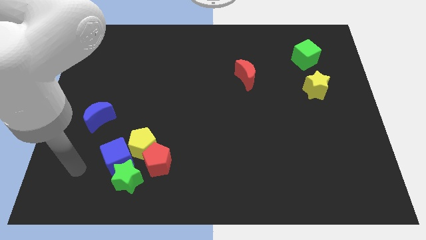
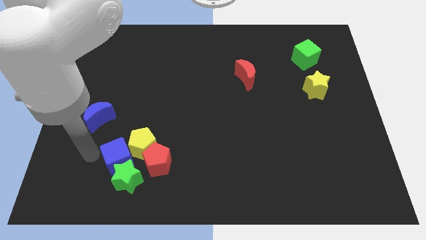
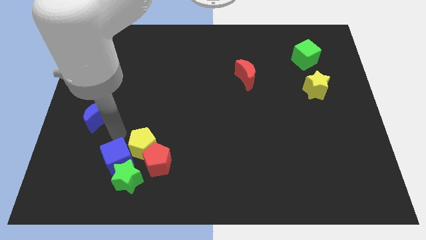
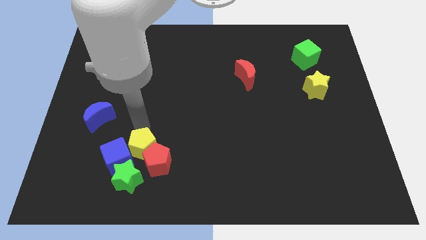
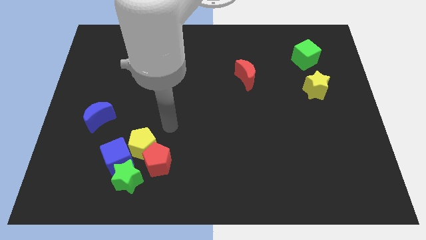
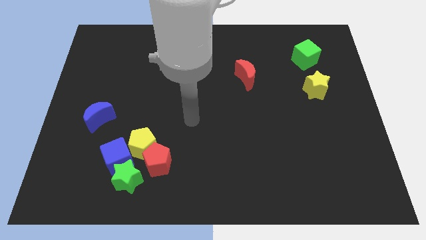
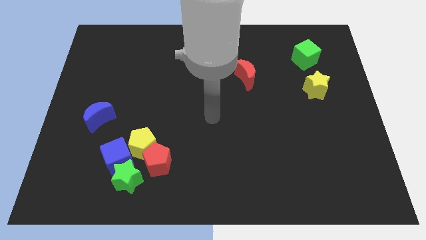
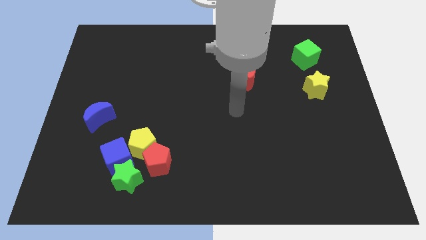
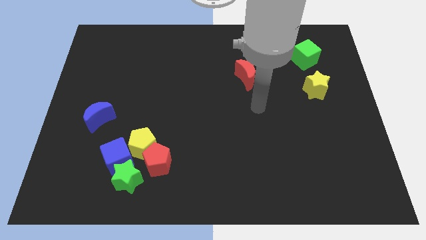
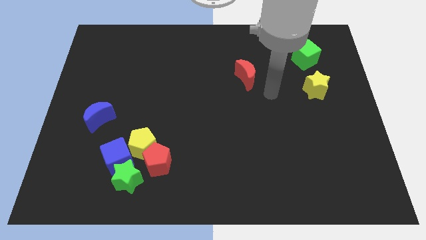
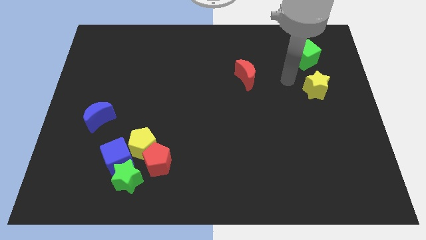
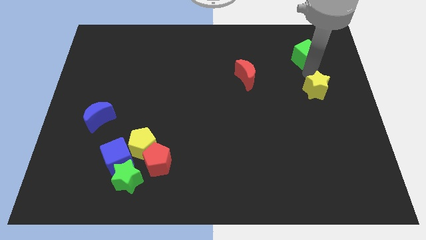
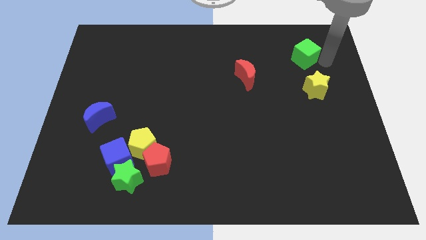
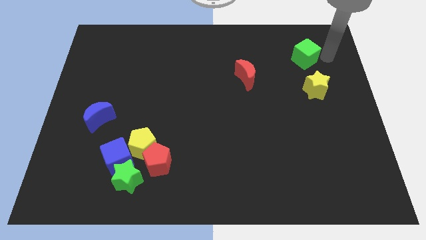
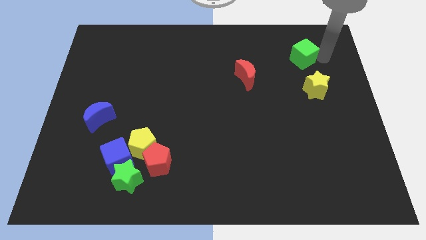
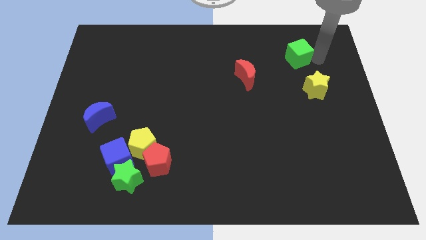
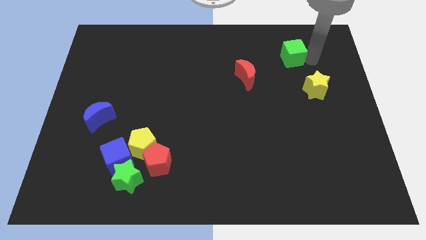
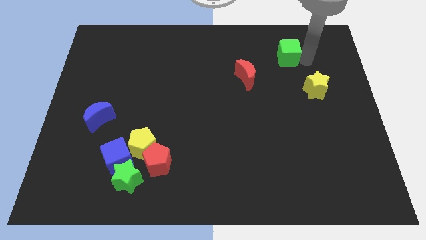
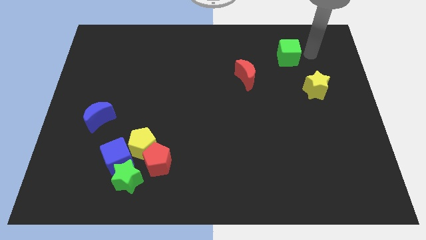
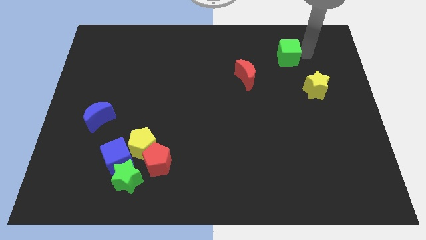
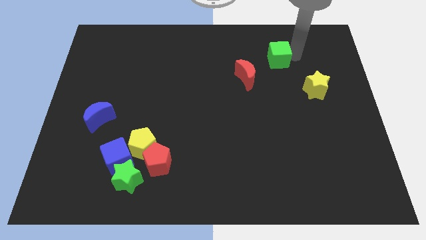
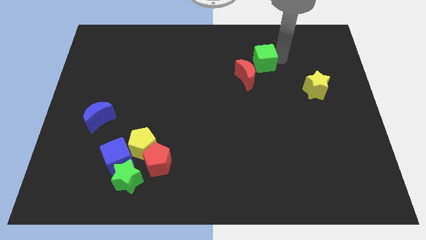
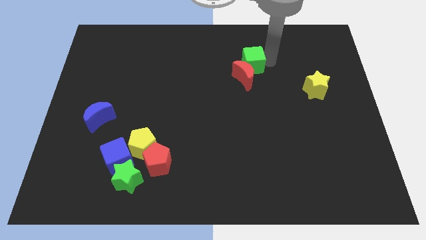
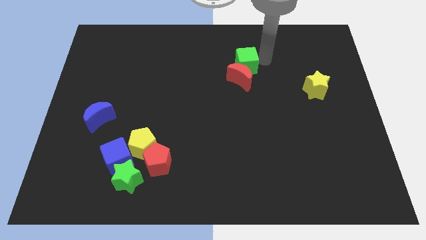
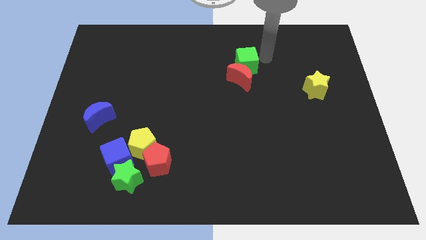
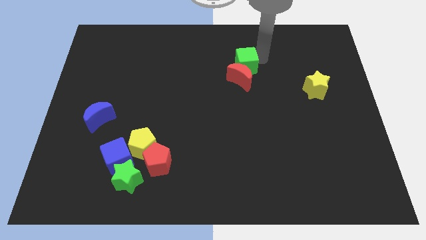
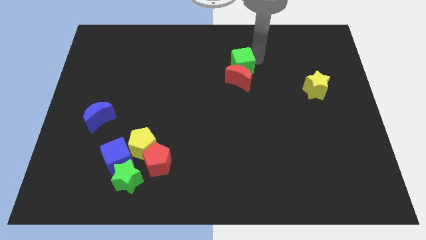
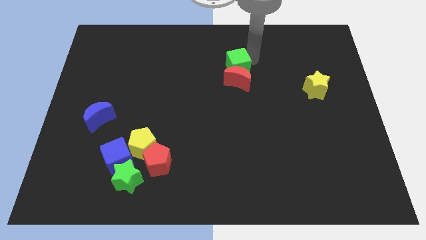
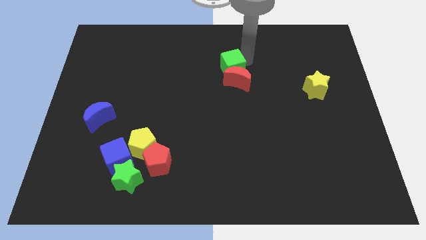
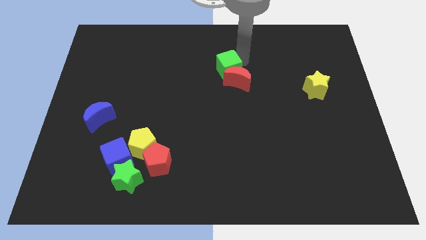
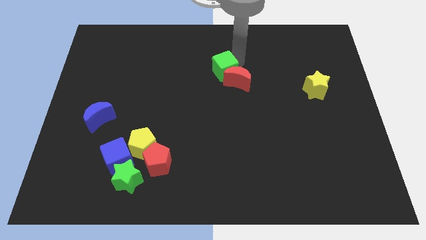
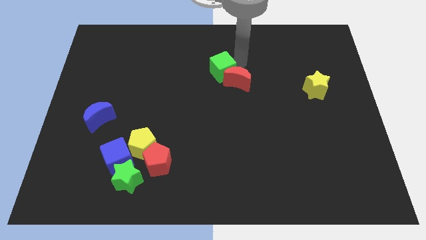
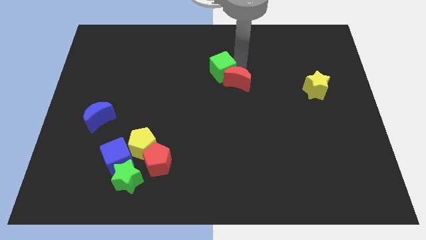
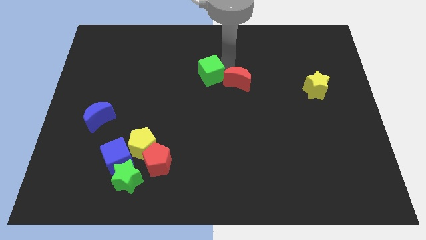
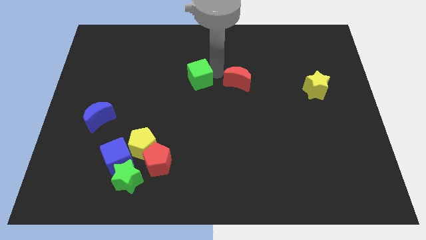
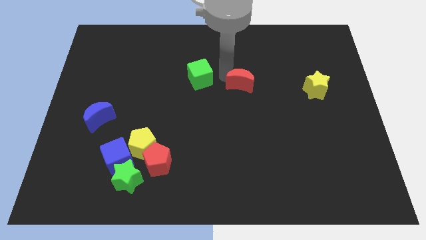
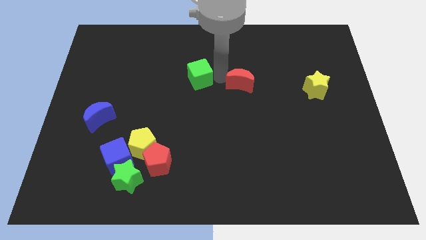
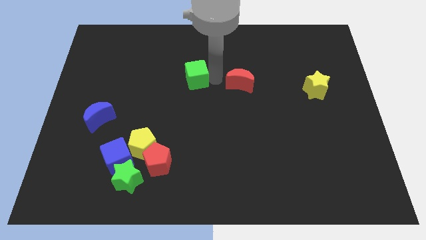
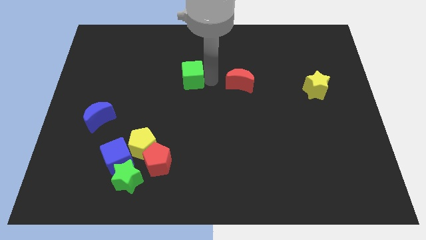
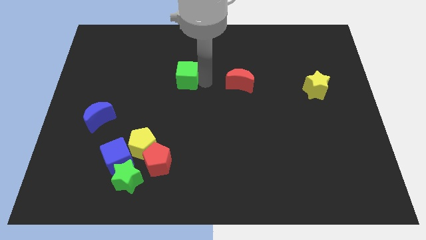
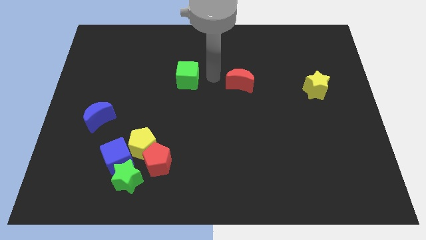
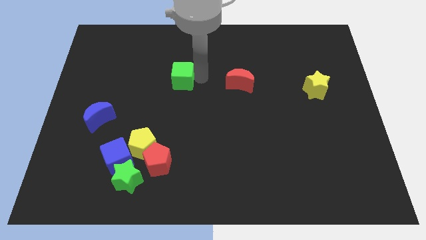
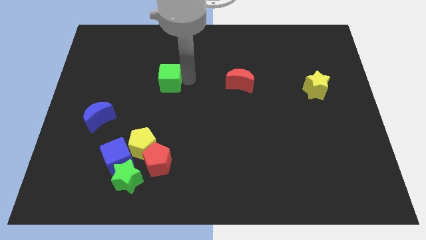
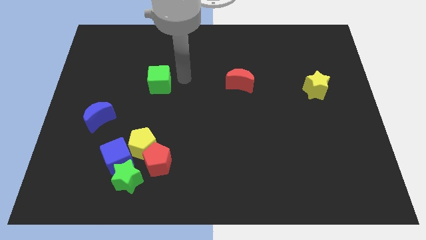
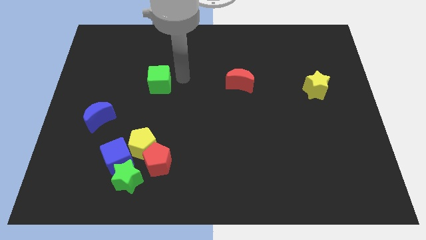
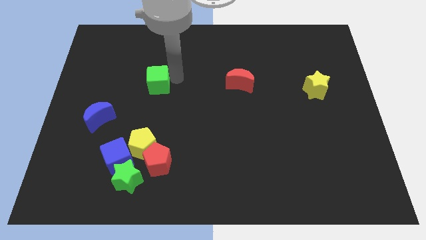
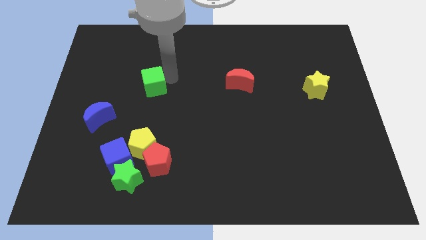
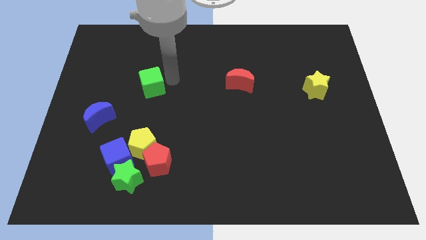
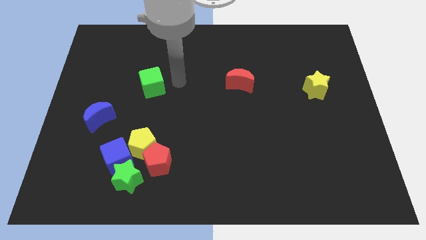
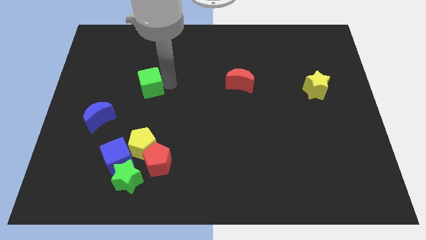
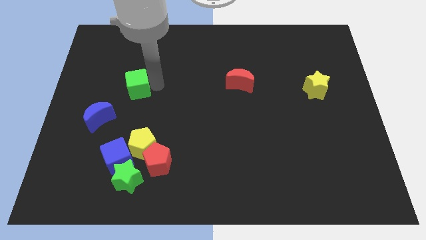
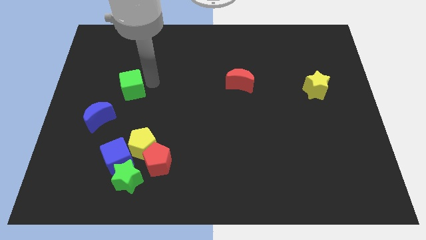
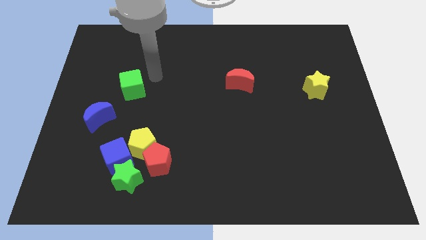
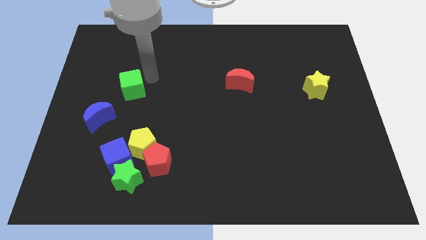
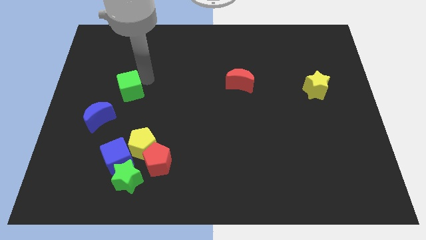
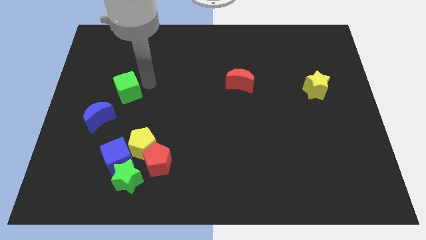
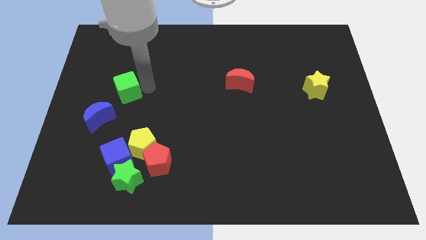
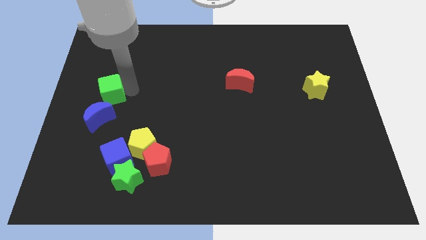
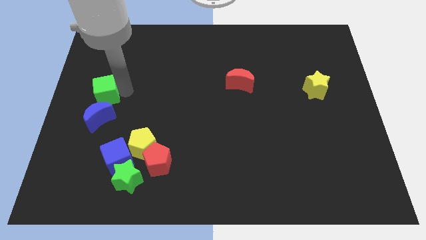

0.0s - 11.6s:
slide the green cube to the center left
